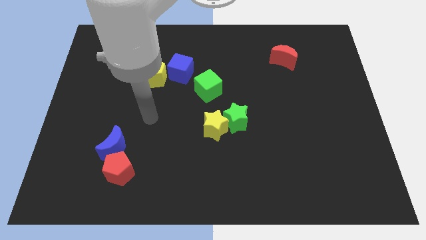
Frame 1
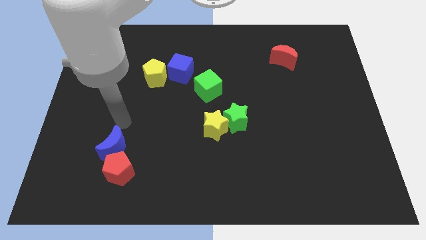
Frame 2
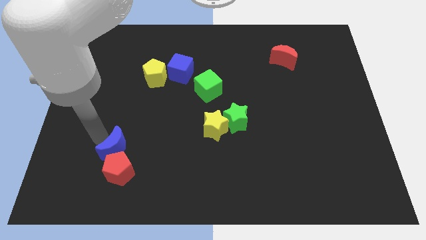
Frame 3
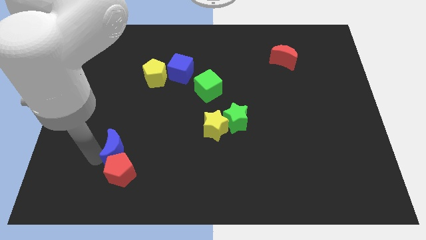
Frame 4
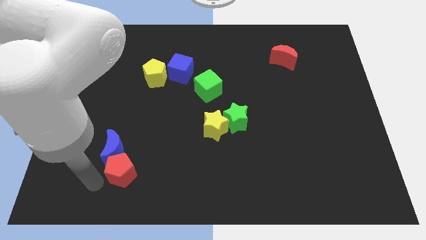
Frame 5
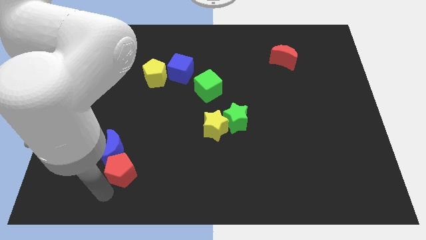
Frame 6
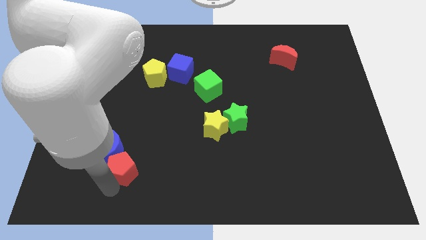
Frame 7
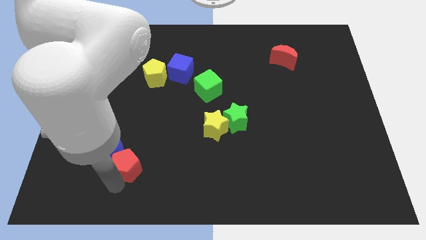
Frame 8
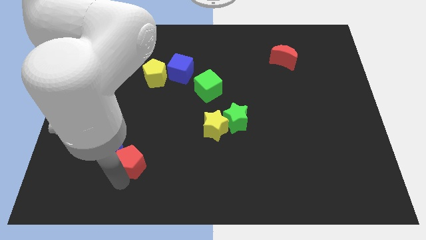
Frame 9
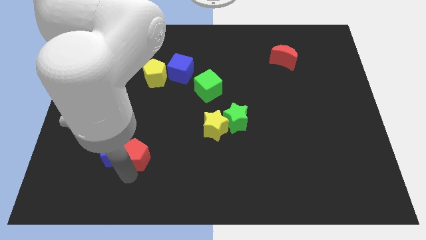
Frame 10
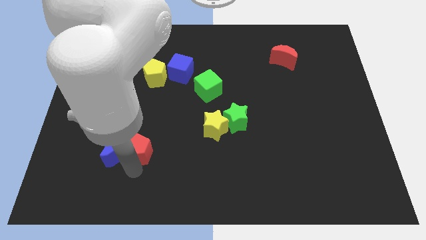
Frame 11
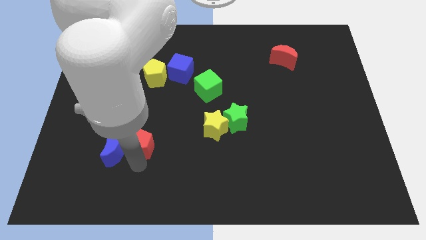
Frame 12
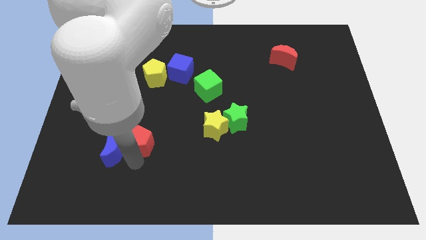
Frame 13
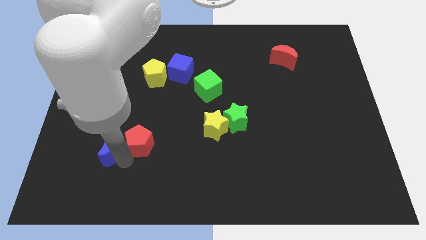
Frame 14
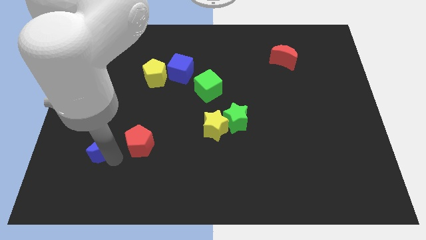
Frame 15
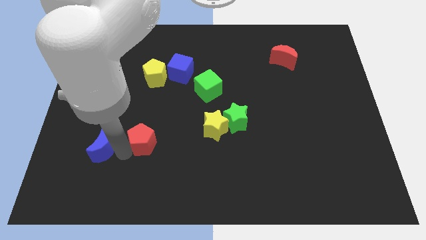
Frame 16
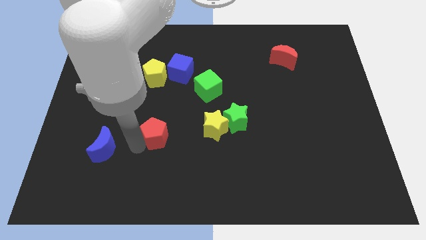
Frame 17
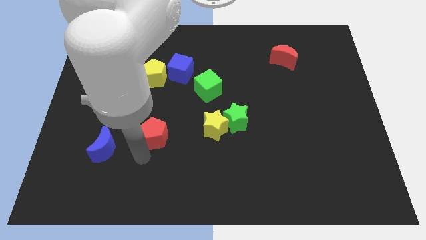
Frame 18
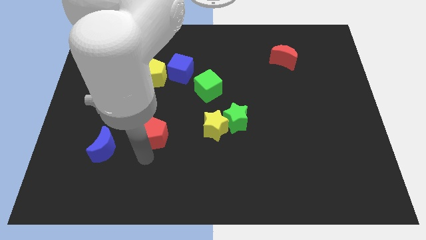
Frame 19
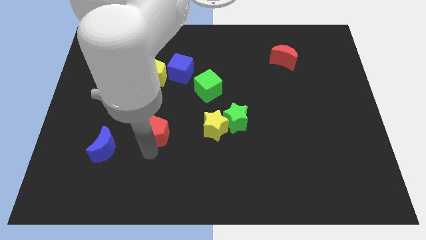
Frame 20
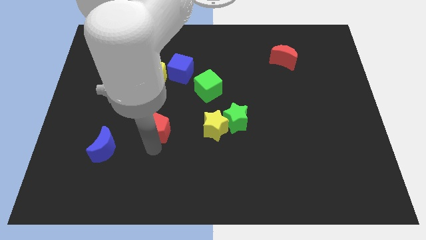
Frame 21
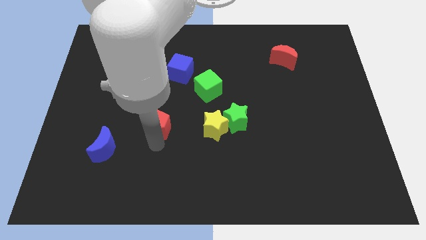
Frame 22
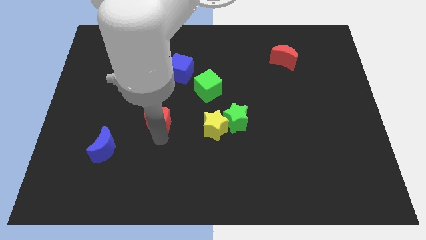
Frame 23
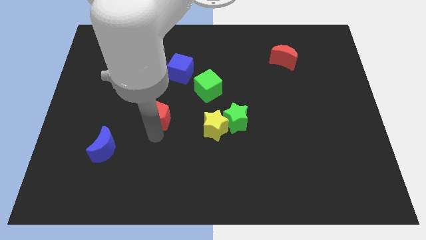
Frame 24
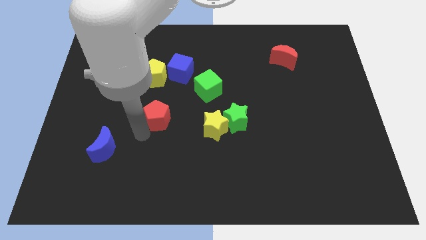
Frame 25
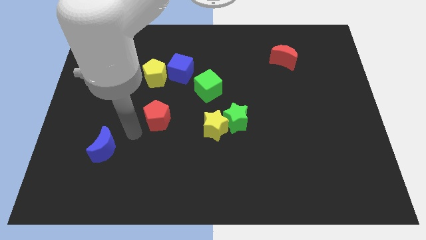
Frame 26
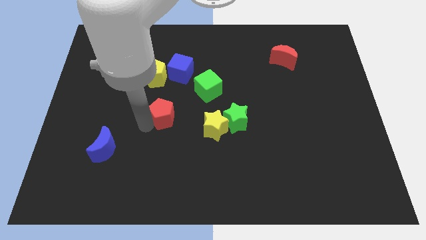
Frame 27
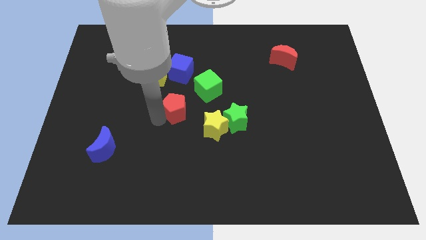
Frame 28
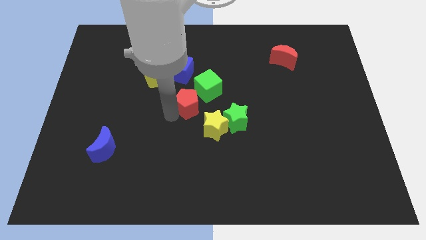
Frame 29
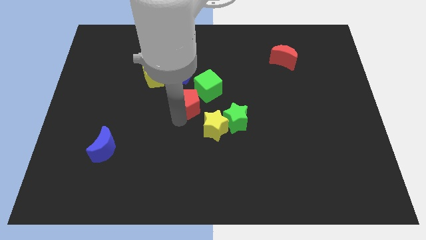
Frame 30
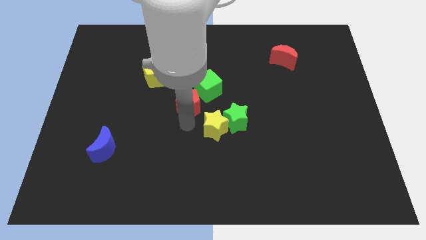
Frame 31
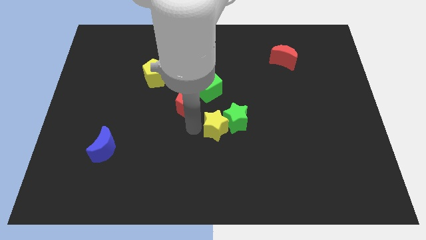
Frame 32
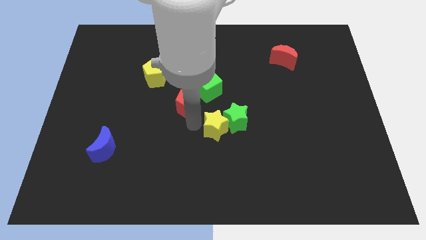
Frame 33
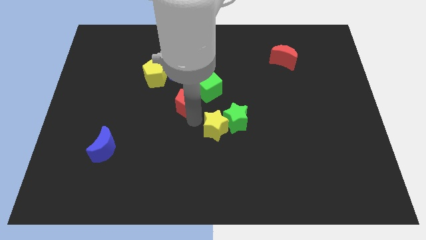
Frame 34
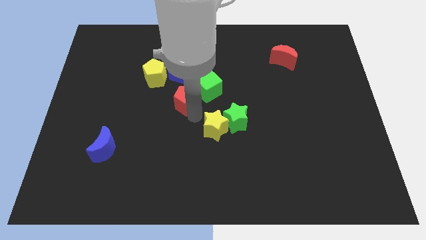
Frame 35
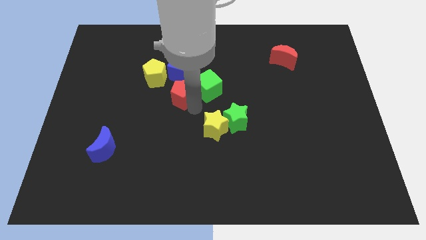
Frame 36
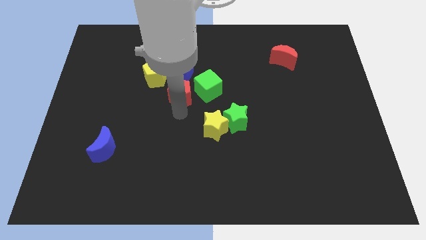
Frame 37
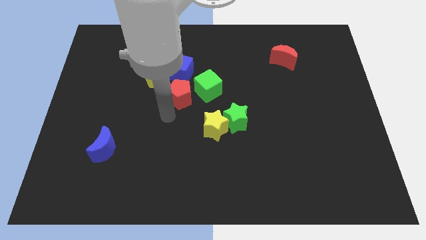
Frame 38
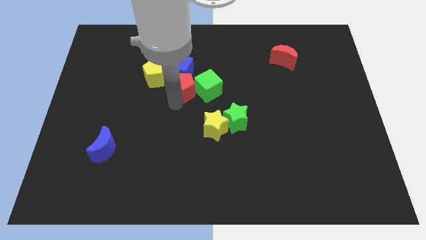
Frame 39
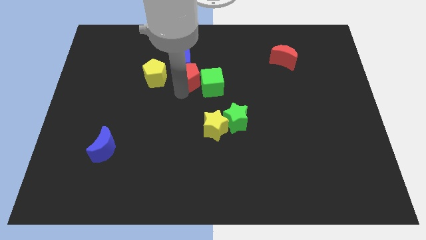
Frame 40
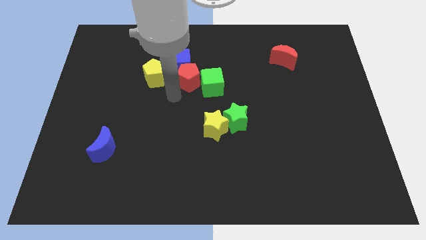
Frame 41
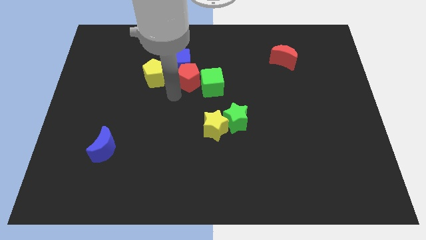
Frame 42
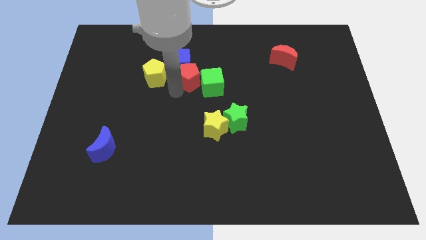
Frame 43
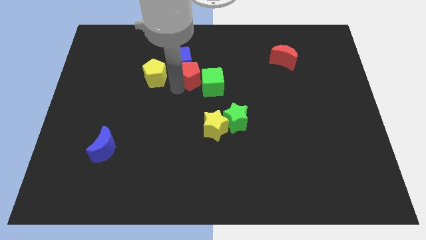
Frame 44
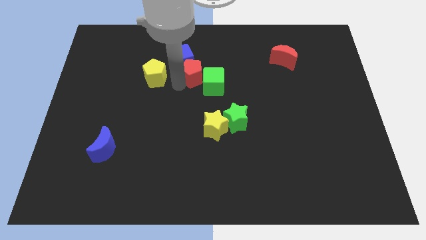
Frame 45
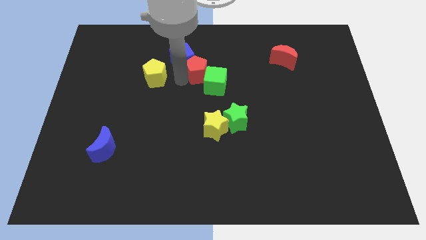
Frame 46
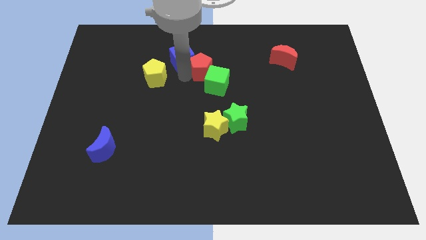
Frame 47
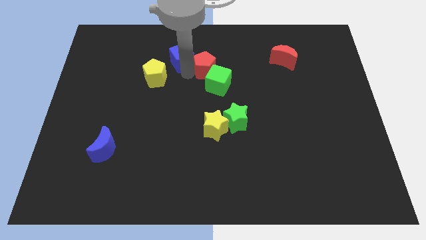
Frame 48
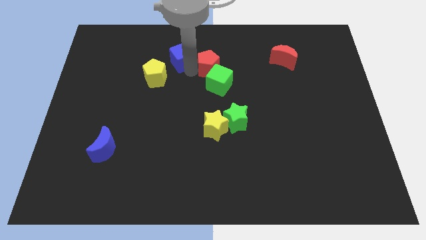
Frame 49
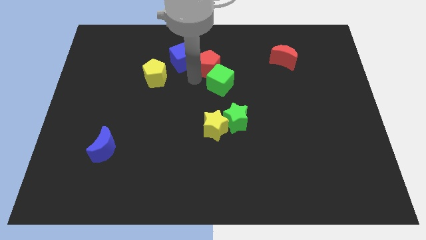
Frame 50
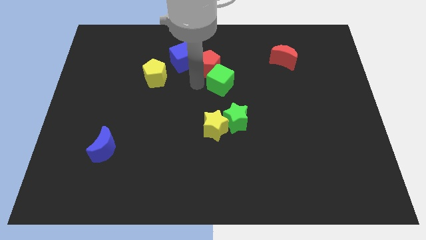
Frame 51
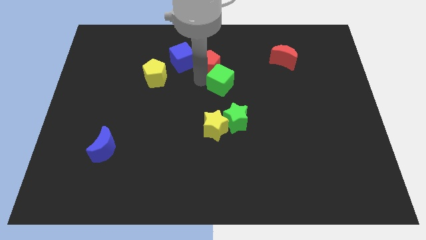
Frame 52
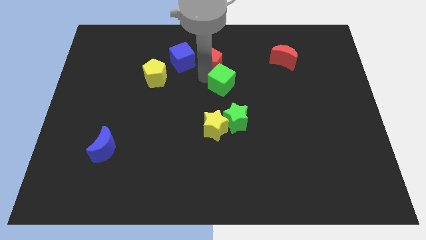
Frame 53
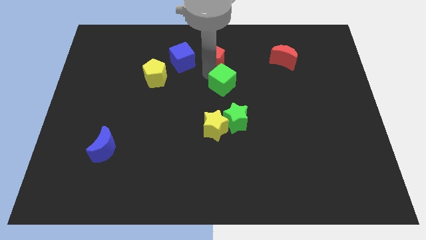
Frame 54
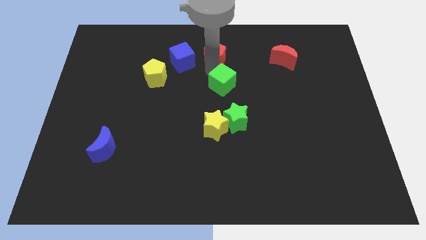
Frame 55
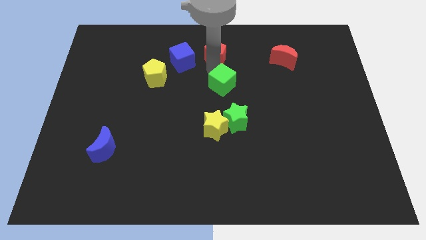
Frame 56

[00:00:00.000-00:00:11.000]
slide the red pentagon to the towards your base
